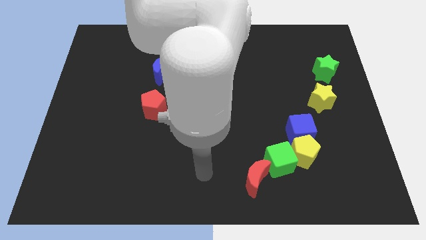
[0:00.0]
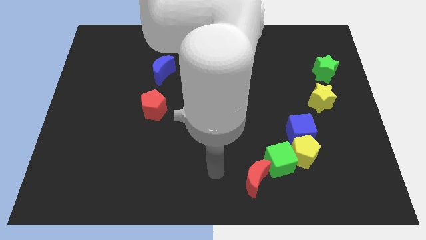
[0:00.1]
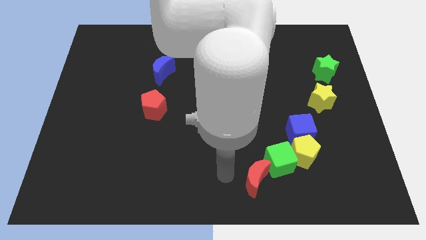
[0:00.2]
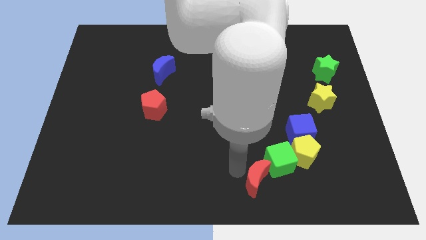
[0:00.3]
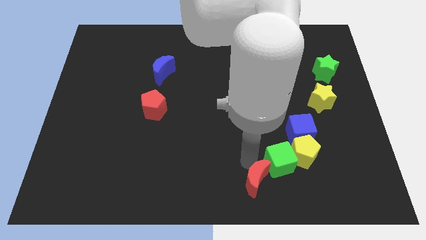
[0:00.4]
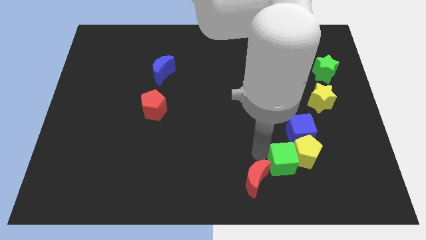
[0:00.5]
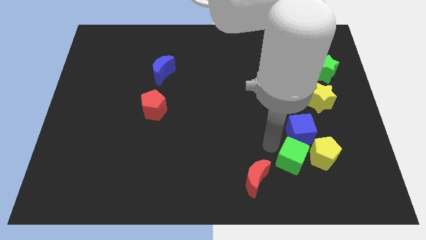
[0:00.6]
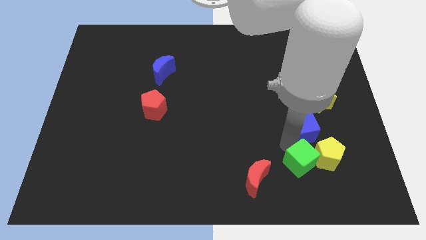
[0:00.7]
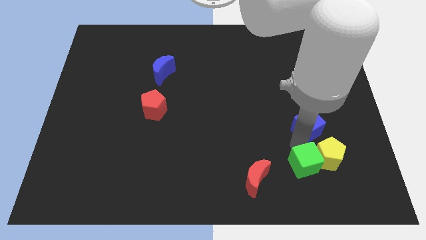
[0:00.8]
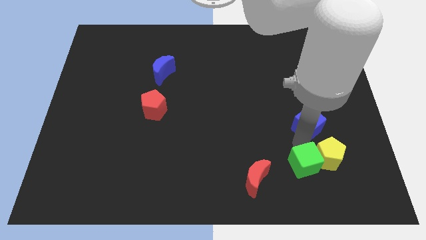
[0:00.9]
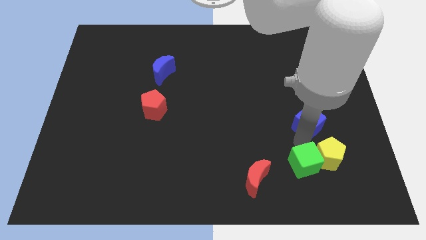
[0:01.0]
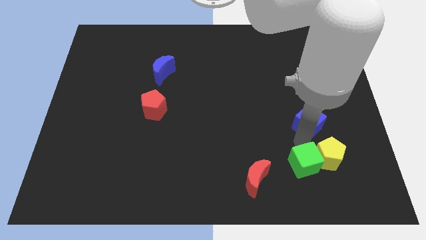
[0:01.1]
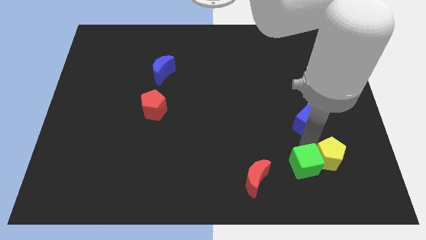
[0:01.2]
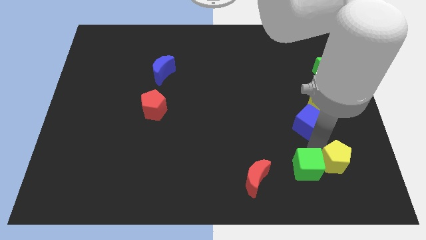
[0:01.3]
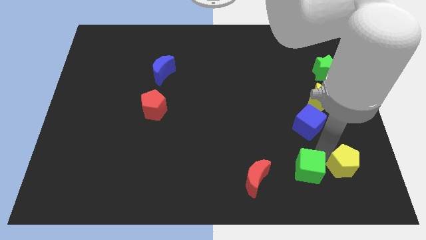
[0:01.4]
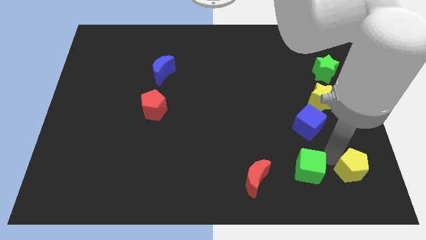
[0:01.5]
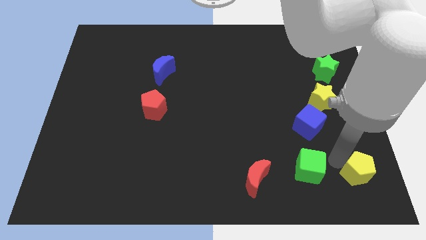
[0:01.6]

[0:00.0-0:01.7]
move the yellow pentagon away from the blue cube and green cube

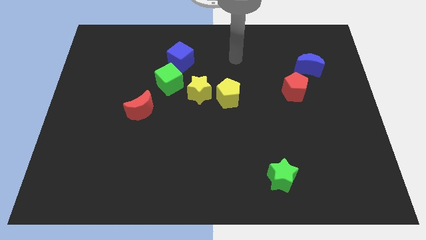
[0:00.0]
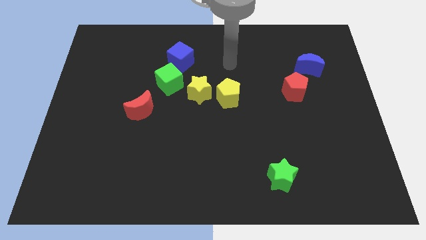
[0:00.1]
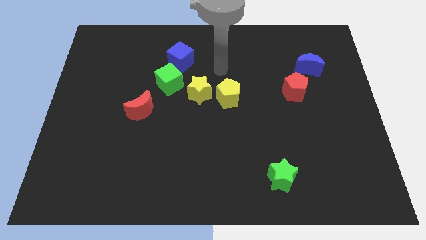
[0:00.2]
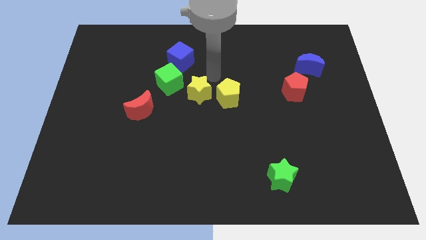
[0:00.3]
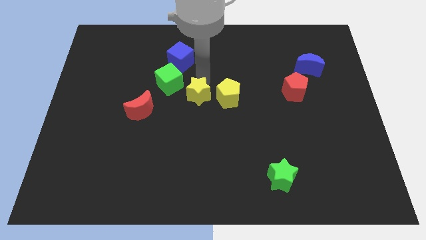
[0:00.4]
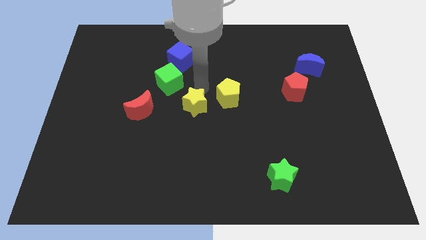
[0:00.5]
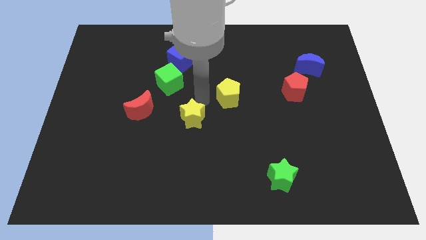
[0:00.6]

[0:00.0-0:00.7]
separate the yellow pentagon from the yellow star

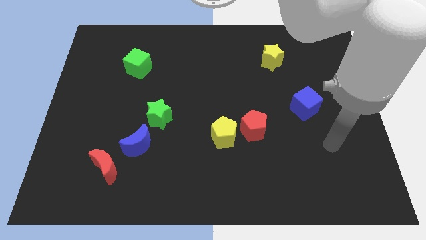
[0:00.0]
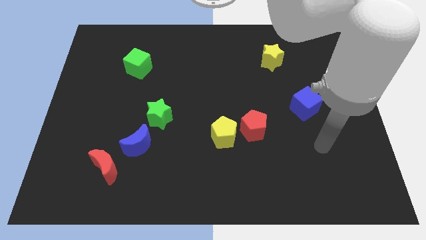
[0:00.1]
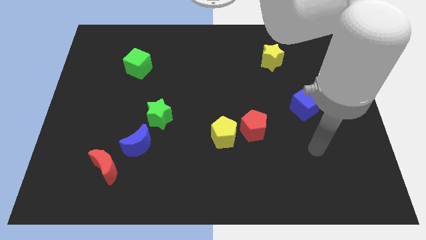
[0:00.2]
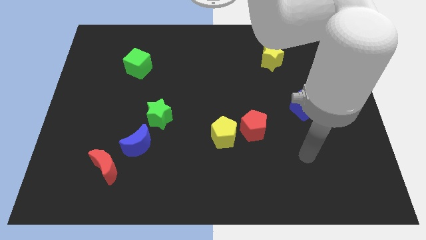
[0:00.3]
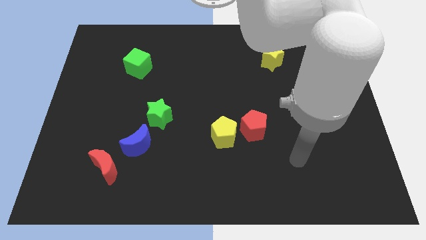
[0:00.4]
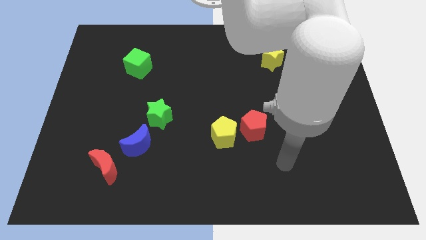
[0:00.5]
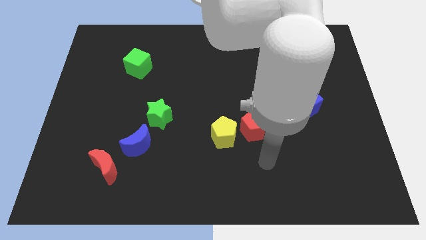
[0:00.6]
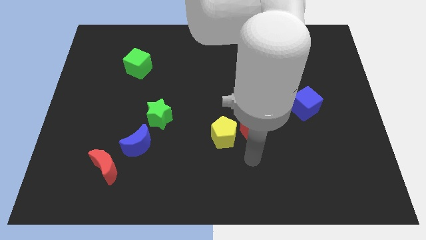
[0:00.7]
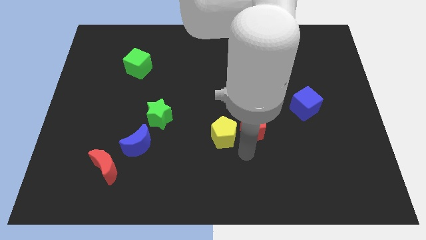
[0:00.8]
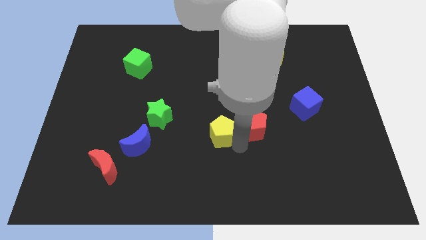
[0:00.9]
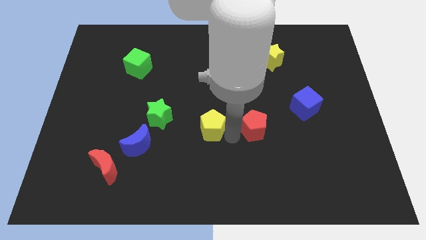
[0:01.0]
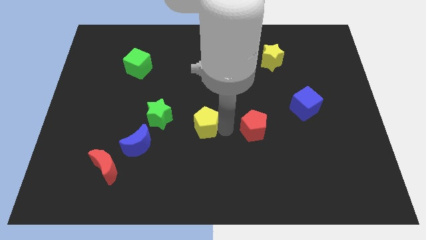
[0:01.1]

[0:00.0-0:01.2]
pull the red pentagon apart from the yellow pentagon

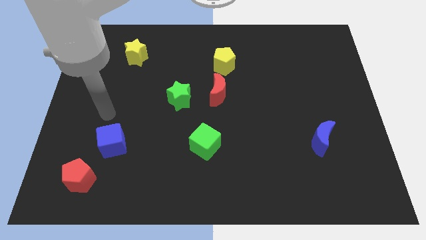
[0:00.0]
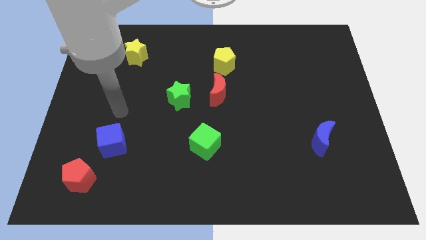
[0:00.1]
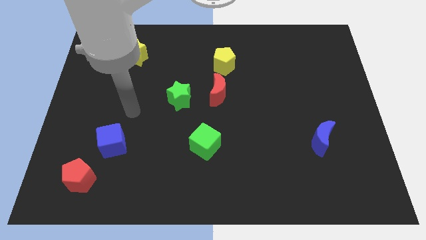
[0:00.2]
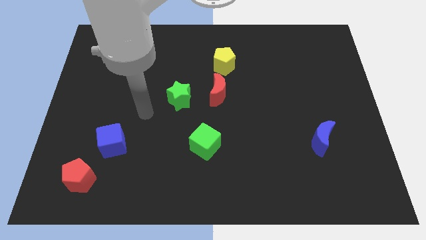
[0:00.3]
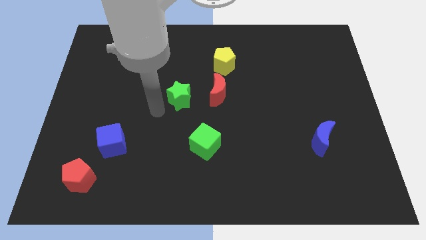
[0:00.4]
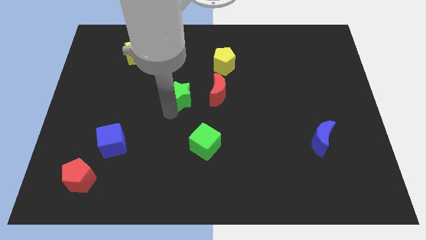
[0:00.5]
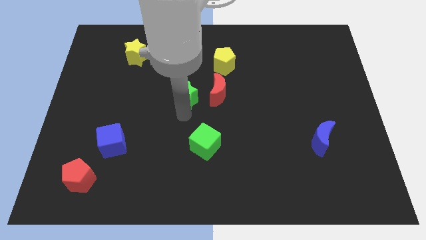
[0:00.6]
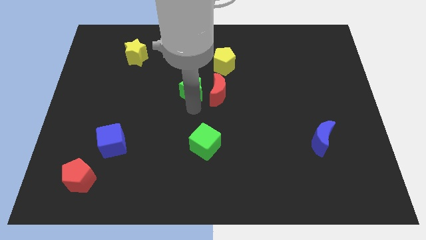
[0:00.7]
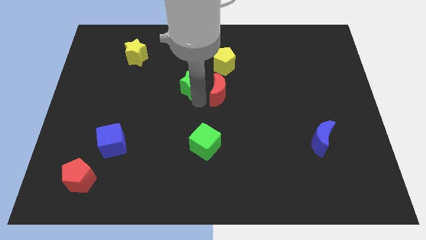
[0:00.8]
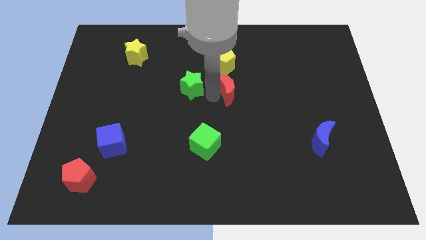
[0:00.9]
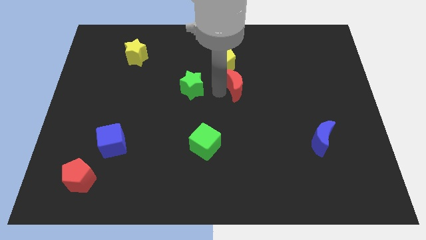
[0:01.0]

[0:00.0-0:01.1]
pull the green star apart from the red moon

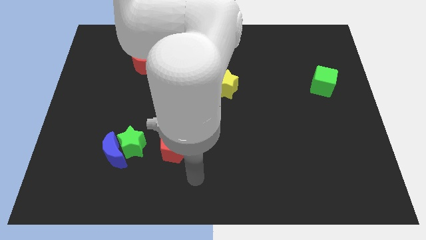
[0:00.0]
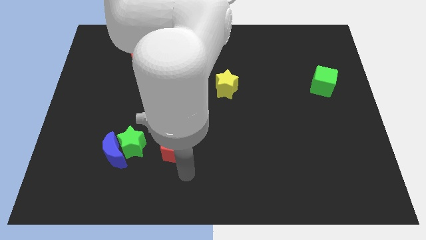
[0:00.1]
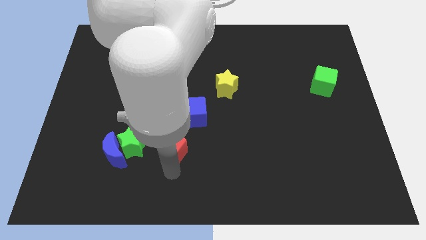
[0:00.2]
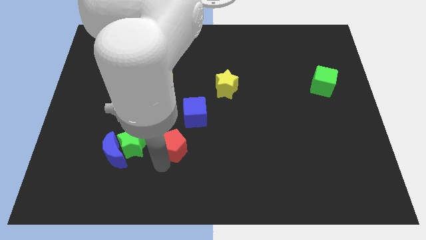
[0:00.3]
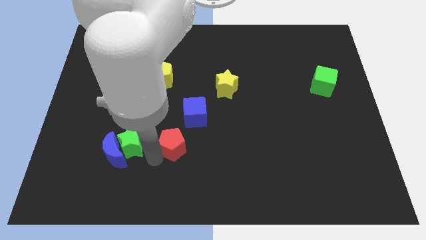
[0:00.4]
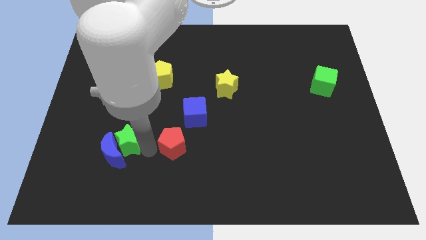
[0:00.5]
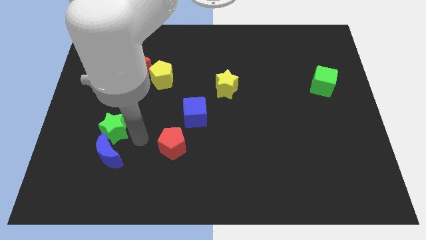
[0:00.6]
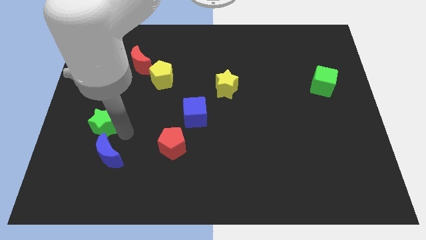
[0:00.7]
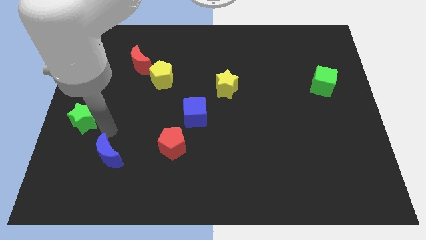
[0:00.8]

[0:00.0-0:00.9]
pull the blue moon apart from the green star

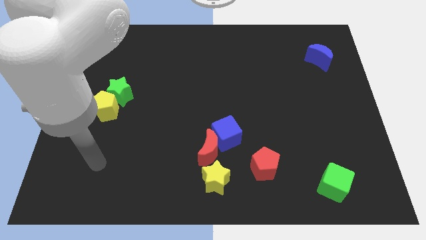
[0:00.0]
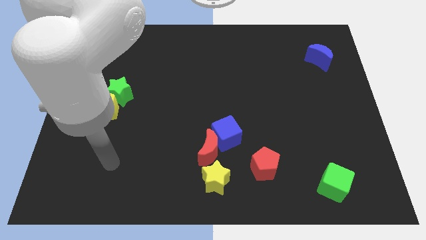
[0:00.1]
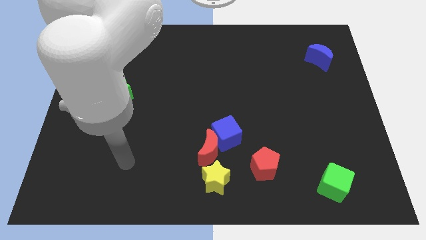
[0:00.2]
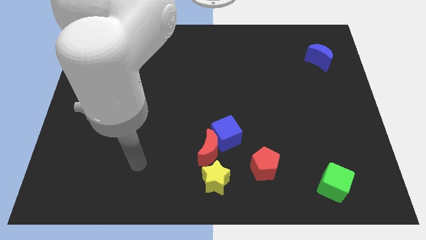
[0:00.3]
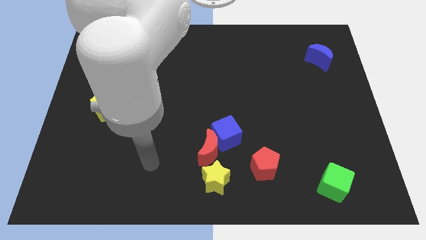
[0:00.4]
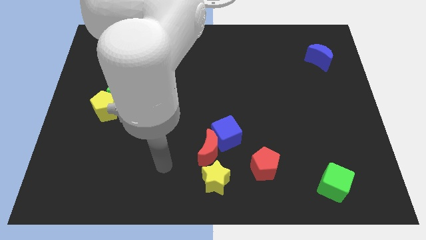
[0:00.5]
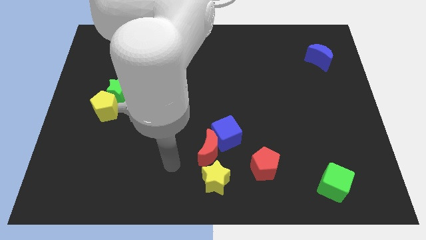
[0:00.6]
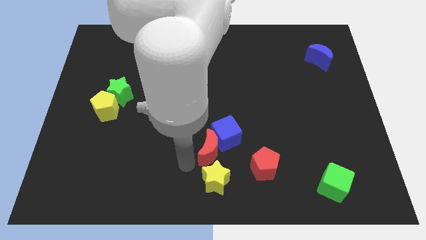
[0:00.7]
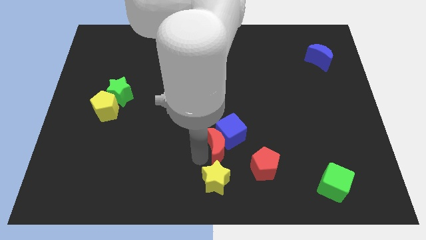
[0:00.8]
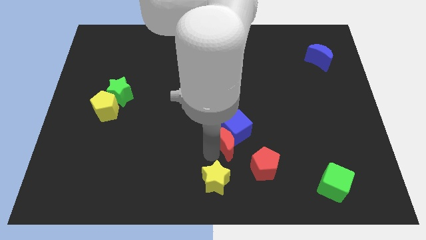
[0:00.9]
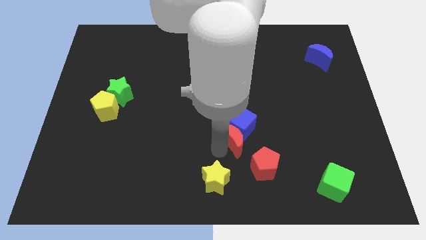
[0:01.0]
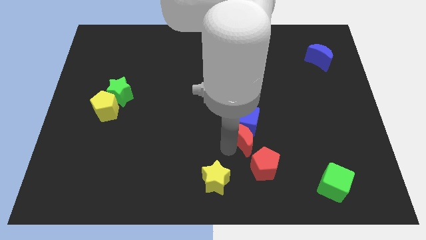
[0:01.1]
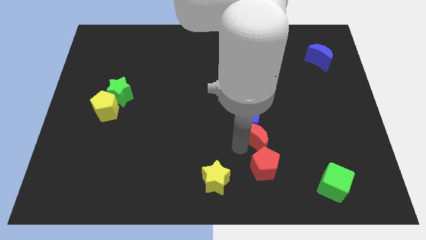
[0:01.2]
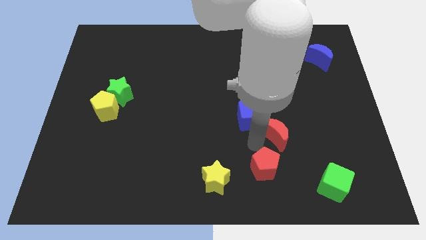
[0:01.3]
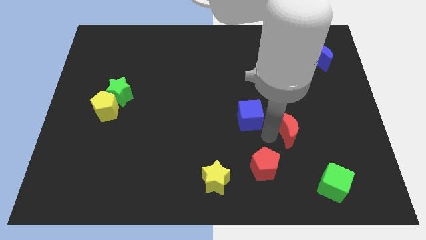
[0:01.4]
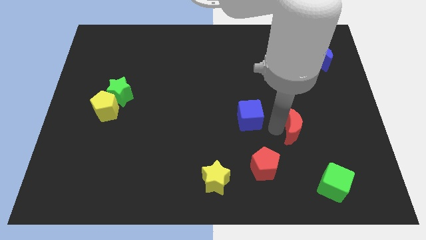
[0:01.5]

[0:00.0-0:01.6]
pull the blue cube apart from the red moon

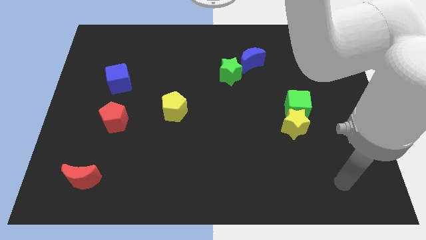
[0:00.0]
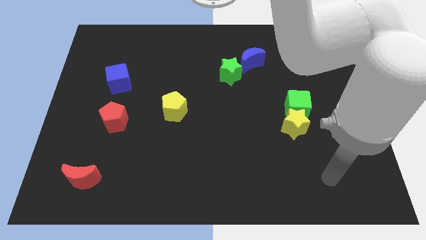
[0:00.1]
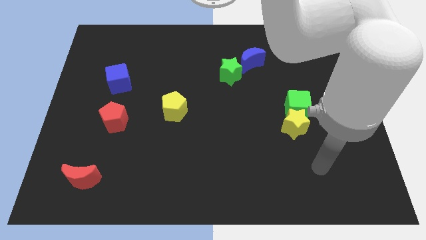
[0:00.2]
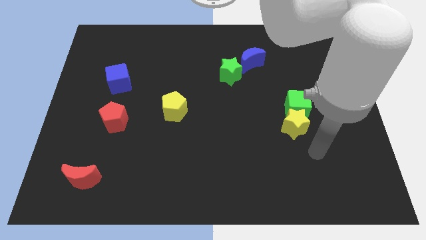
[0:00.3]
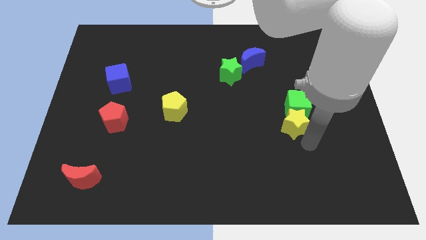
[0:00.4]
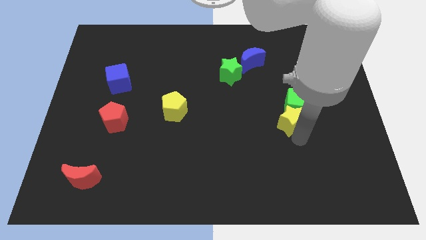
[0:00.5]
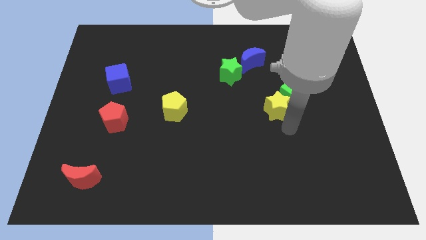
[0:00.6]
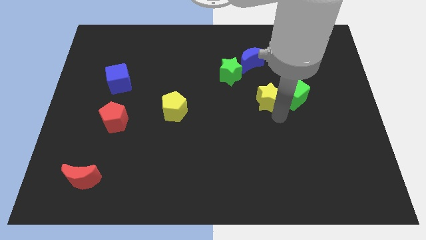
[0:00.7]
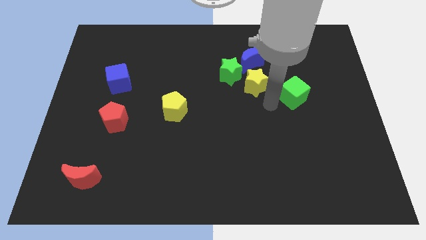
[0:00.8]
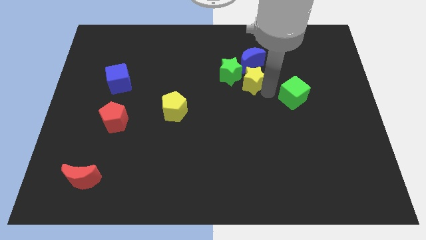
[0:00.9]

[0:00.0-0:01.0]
separate the green cube from the yellow star

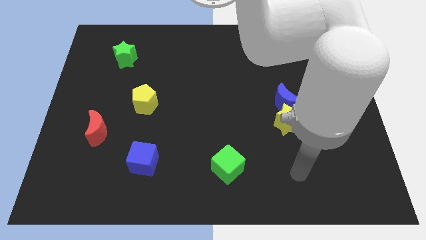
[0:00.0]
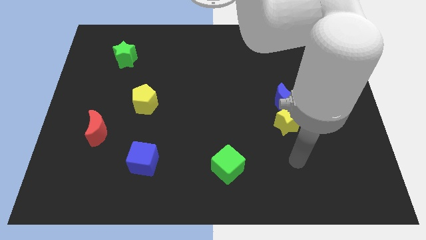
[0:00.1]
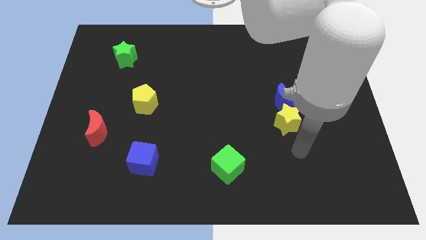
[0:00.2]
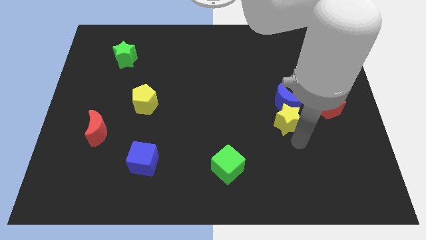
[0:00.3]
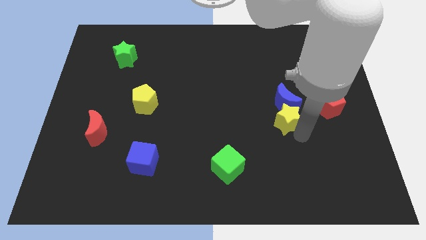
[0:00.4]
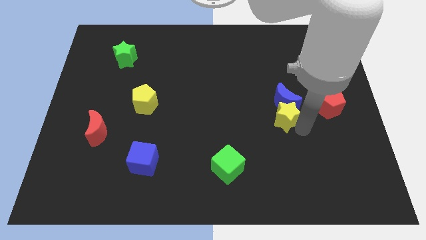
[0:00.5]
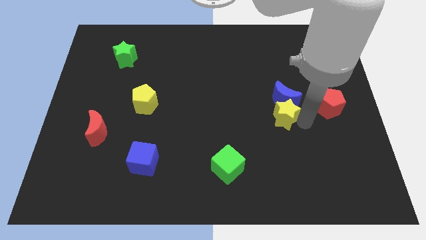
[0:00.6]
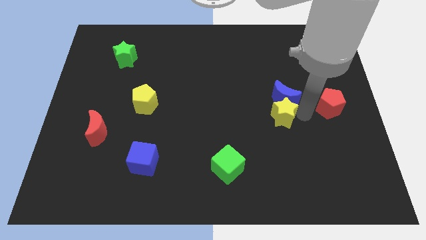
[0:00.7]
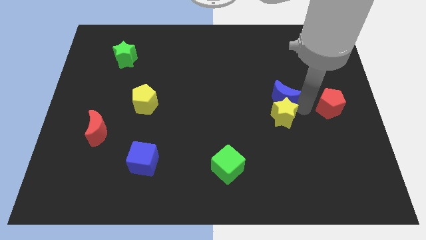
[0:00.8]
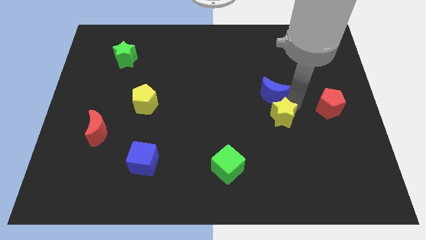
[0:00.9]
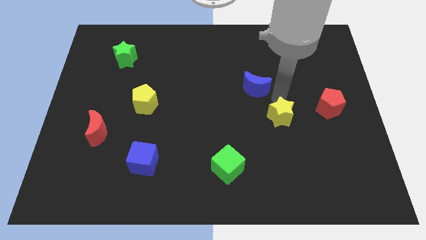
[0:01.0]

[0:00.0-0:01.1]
pull the yellow star apart from the blue moon
